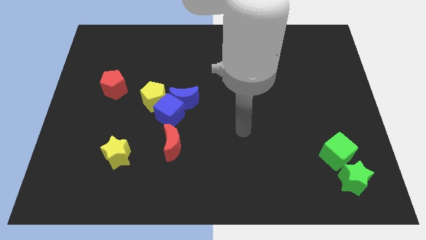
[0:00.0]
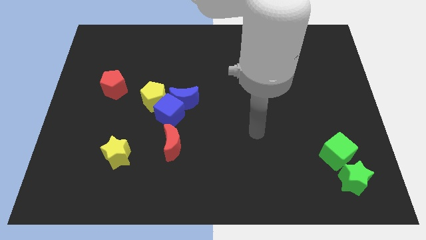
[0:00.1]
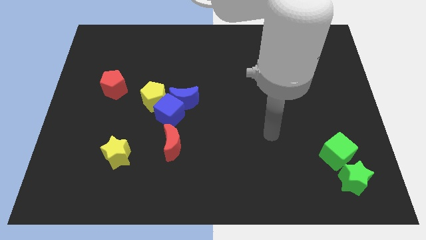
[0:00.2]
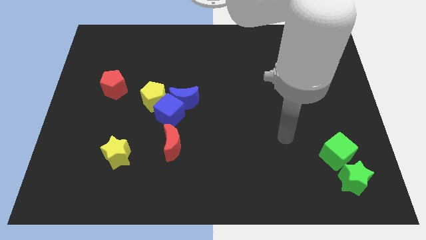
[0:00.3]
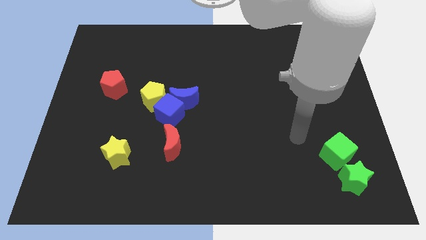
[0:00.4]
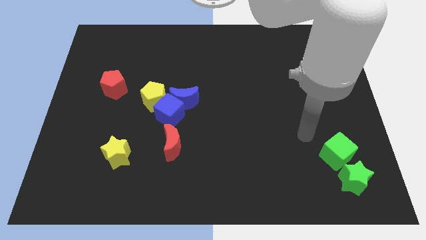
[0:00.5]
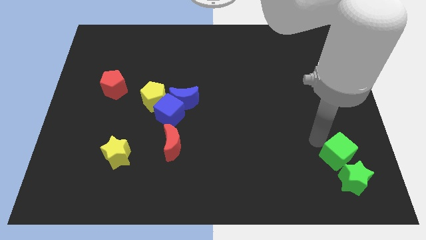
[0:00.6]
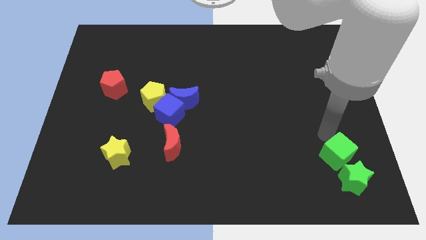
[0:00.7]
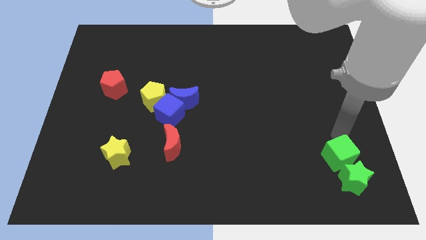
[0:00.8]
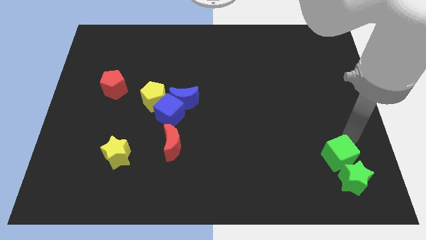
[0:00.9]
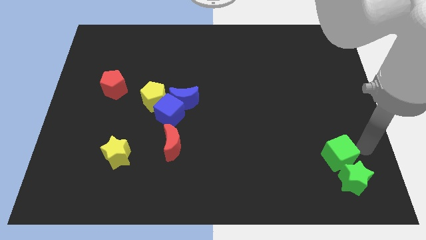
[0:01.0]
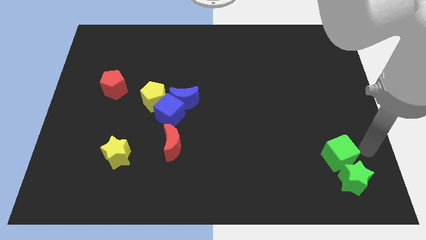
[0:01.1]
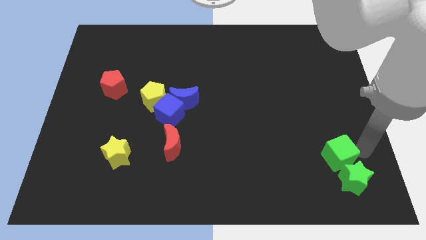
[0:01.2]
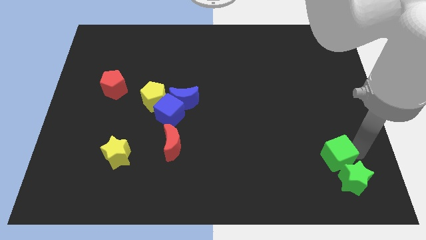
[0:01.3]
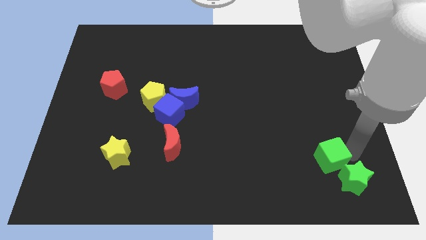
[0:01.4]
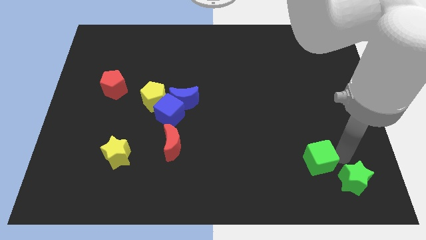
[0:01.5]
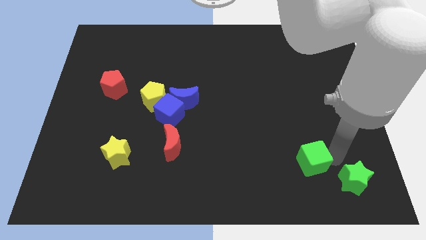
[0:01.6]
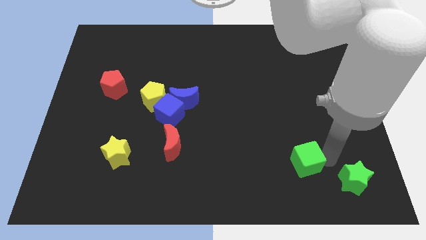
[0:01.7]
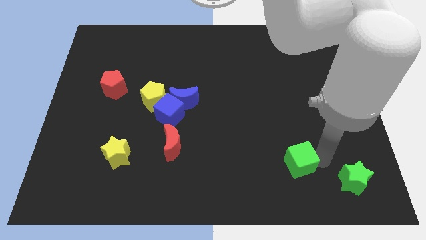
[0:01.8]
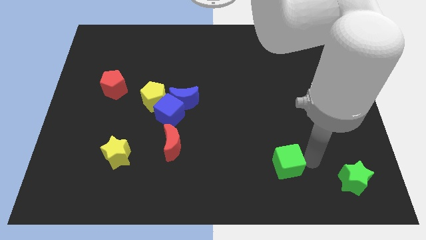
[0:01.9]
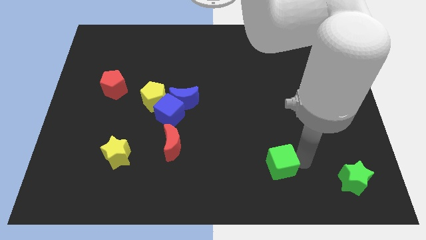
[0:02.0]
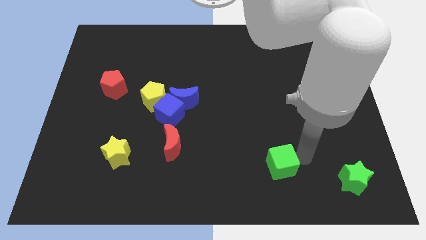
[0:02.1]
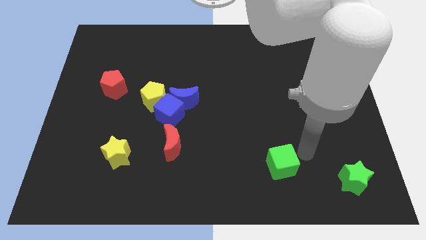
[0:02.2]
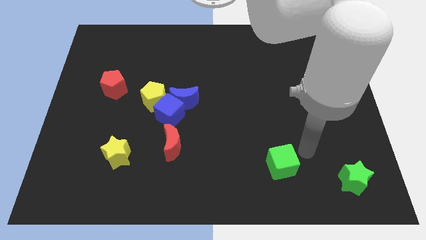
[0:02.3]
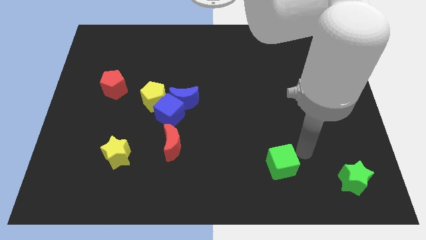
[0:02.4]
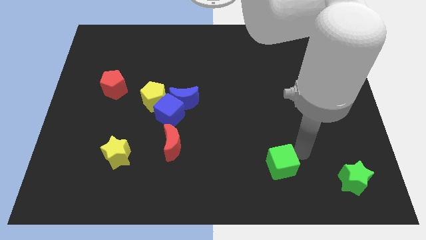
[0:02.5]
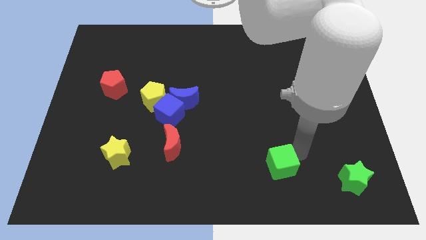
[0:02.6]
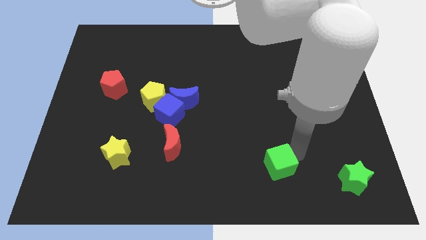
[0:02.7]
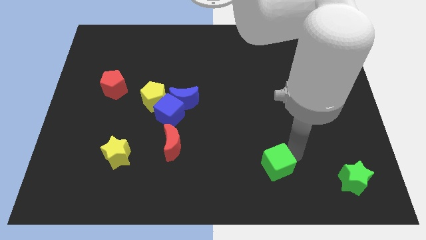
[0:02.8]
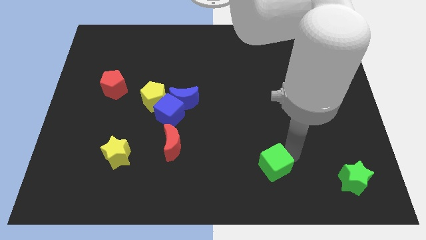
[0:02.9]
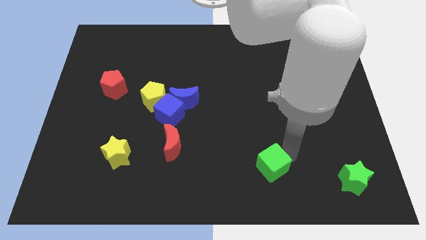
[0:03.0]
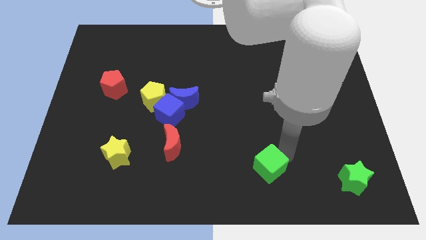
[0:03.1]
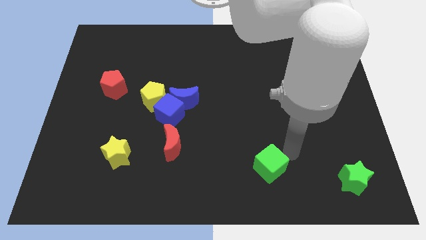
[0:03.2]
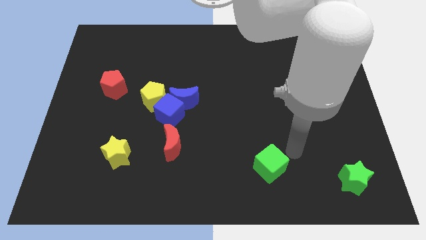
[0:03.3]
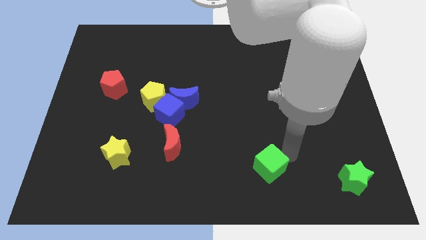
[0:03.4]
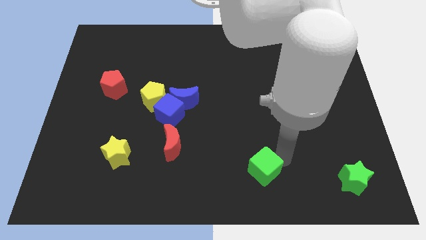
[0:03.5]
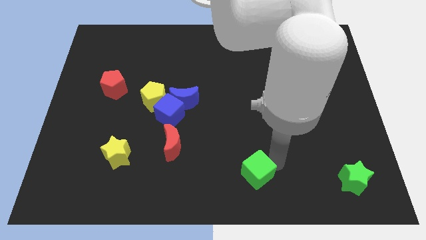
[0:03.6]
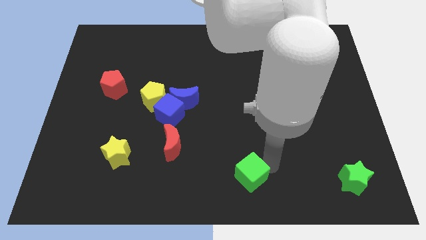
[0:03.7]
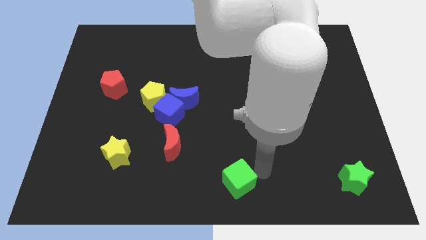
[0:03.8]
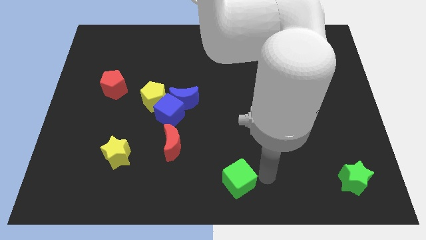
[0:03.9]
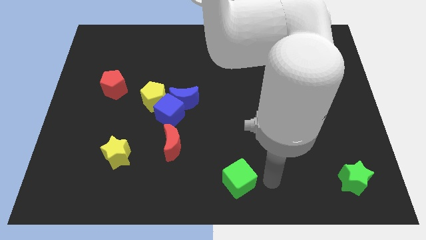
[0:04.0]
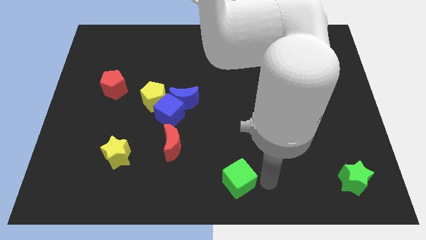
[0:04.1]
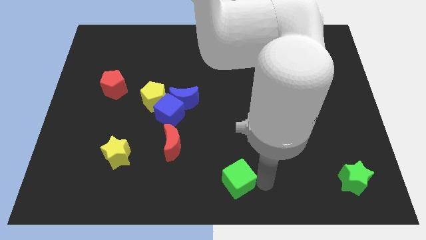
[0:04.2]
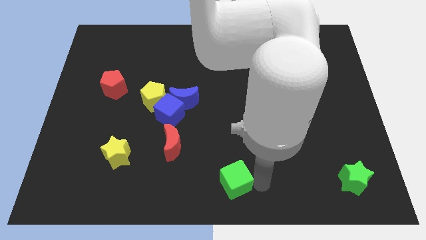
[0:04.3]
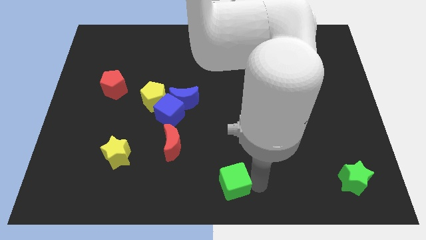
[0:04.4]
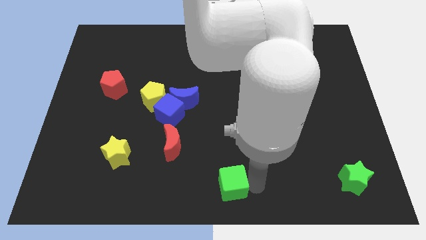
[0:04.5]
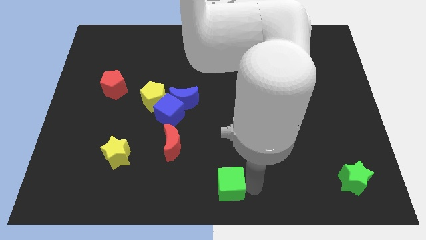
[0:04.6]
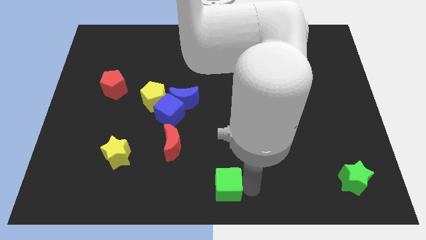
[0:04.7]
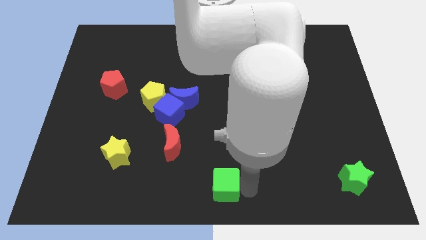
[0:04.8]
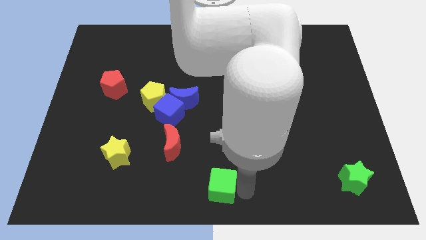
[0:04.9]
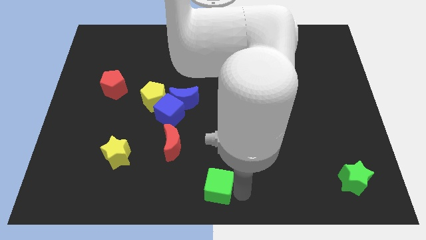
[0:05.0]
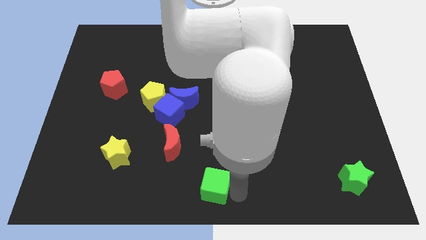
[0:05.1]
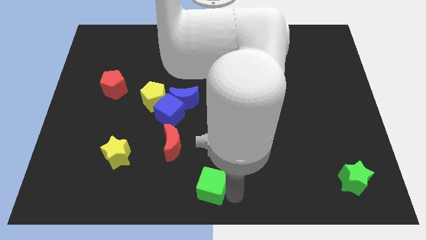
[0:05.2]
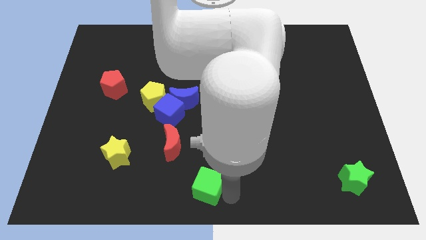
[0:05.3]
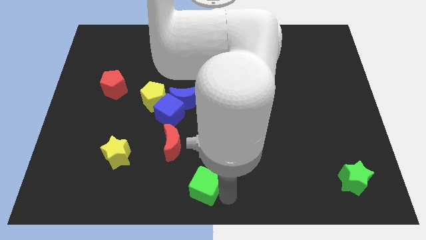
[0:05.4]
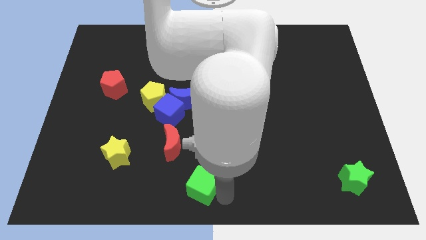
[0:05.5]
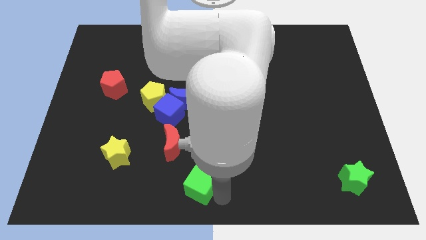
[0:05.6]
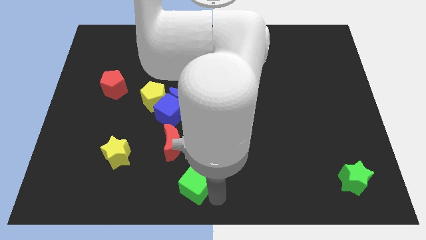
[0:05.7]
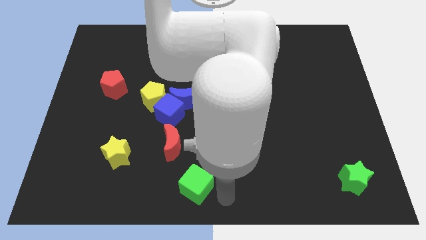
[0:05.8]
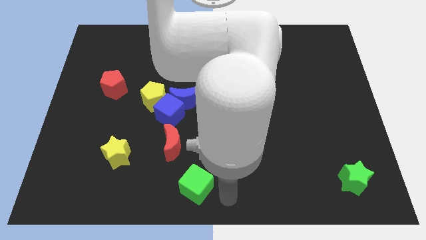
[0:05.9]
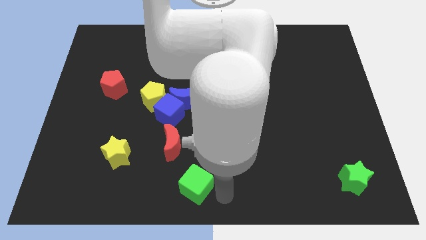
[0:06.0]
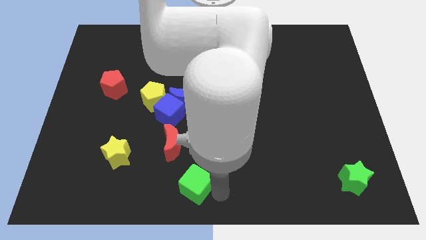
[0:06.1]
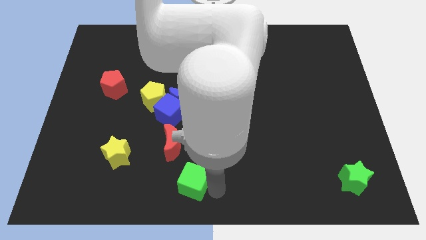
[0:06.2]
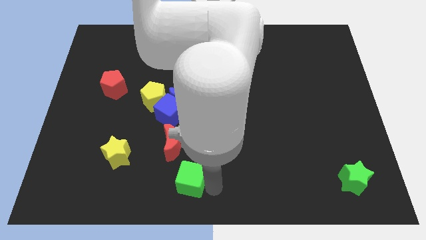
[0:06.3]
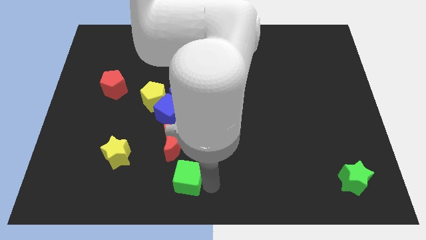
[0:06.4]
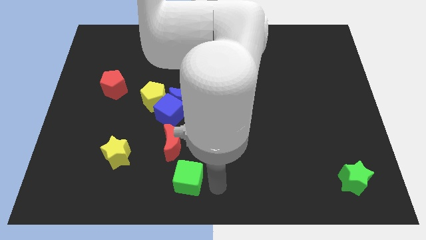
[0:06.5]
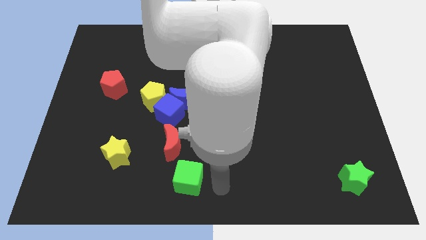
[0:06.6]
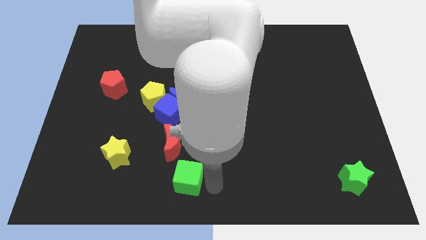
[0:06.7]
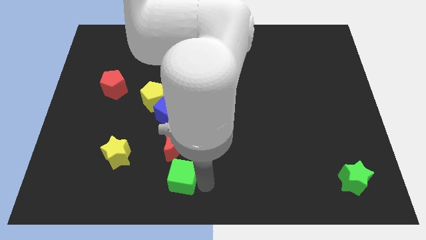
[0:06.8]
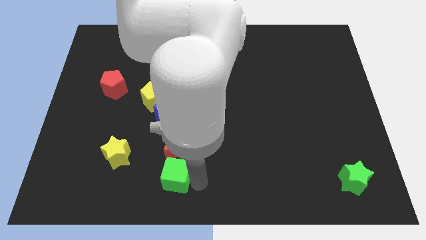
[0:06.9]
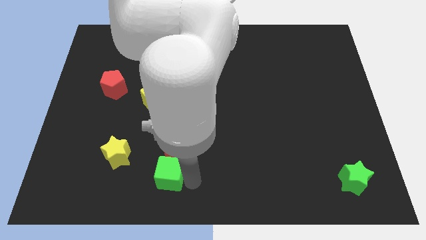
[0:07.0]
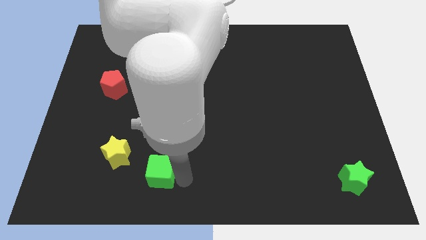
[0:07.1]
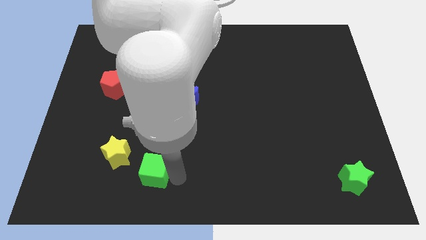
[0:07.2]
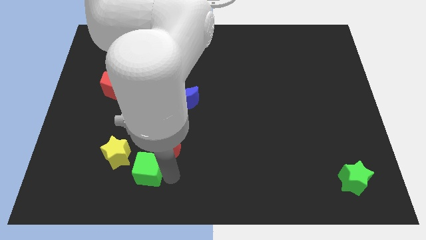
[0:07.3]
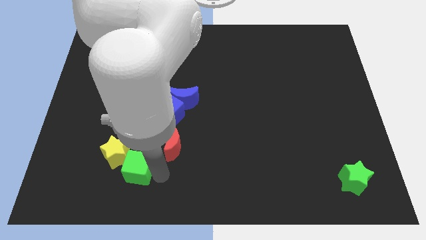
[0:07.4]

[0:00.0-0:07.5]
move the green cube towards the yellow star

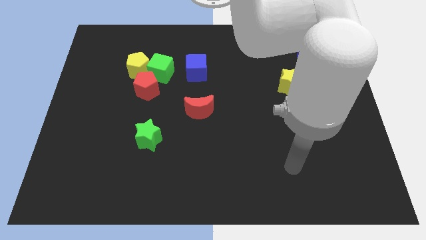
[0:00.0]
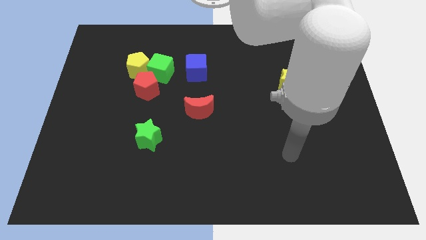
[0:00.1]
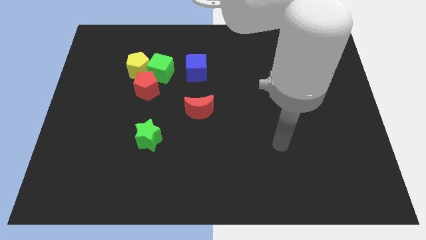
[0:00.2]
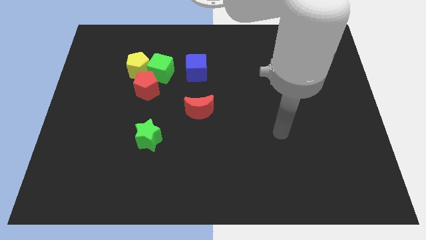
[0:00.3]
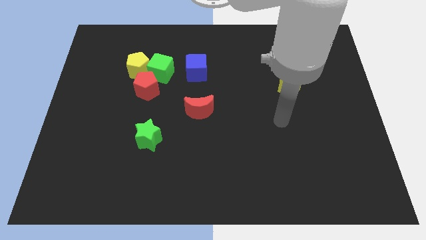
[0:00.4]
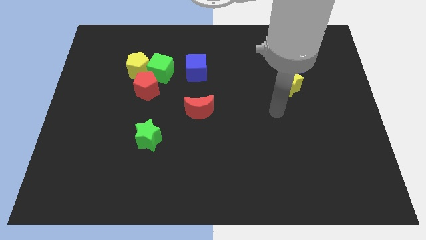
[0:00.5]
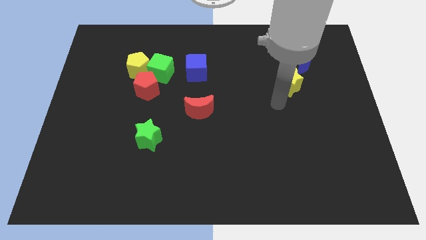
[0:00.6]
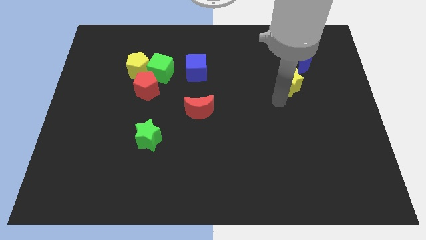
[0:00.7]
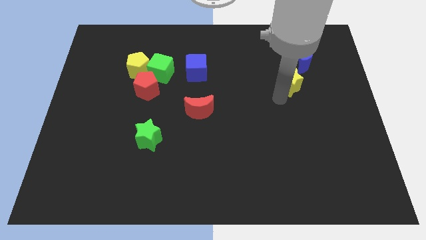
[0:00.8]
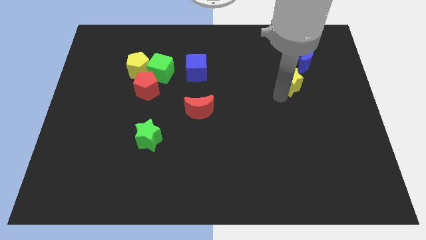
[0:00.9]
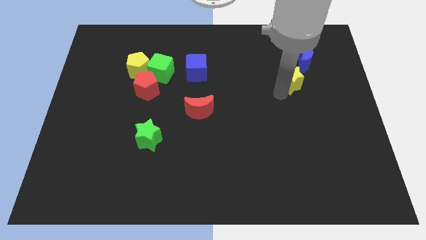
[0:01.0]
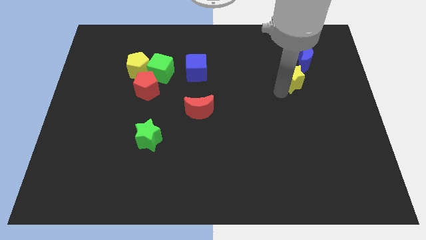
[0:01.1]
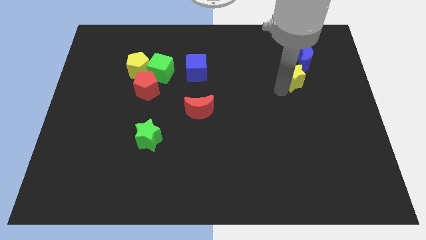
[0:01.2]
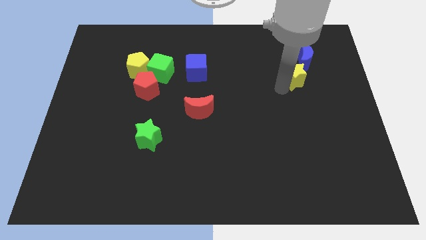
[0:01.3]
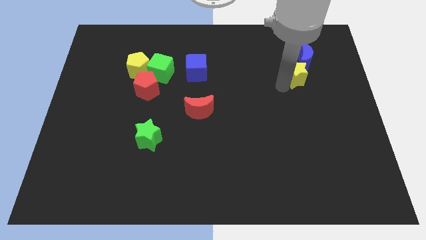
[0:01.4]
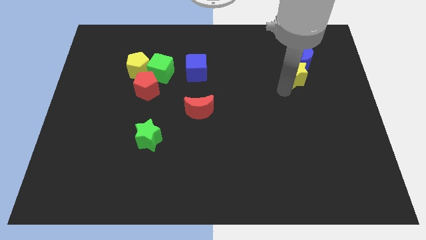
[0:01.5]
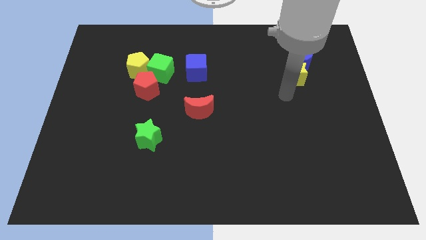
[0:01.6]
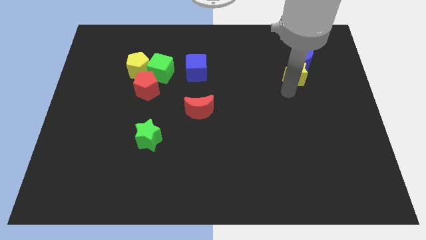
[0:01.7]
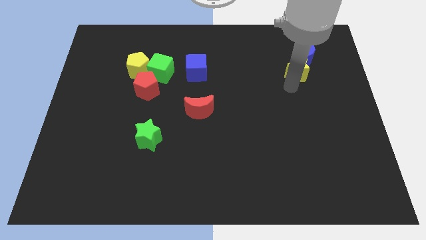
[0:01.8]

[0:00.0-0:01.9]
slide the yellow star to the blue moon
